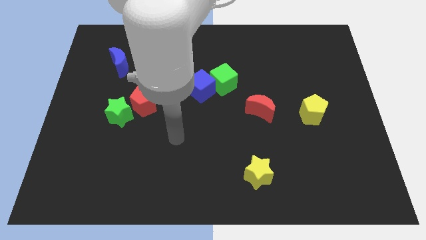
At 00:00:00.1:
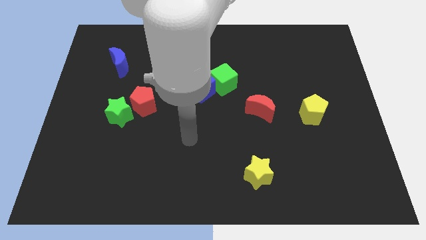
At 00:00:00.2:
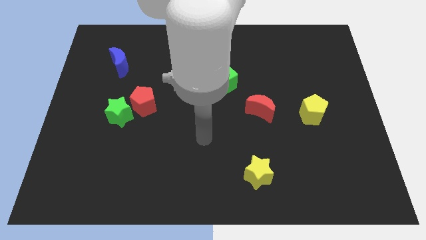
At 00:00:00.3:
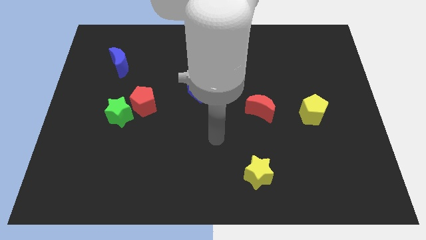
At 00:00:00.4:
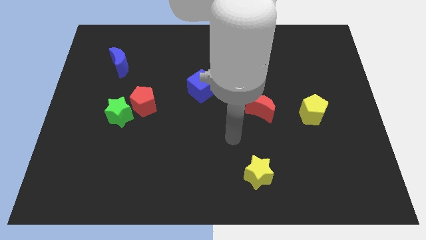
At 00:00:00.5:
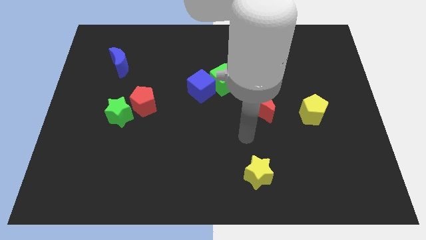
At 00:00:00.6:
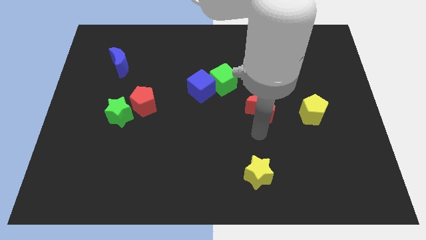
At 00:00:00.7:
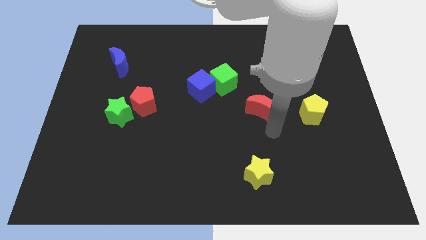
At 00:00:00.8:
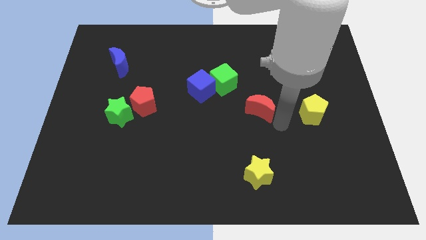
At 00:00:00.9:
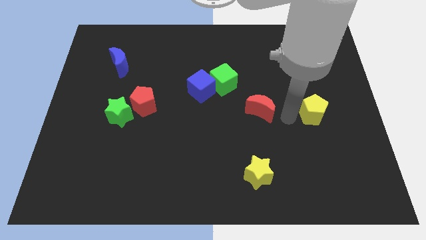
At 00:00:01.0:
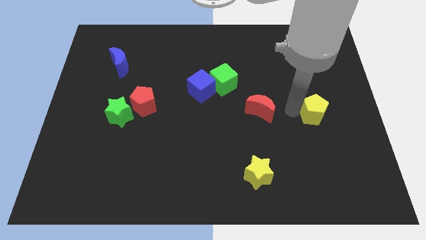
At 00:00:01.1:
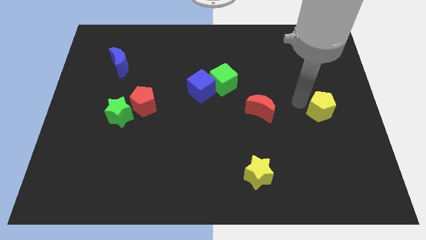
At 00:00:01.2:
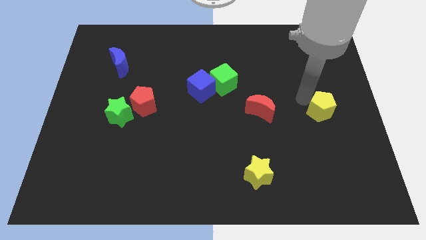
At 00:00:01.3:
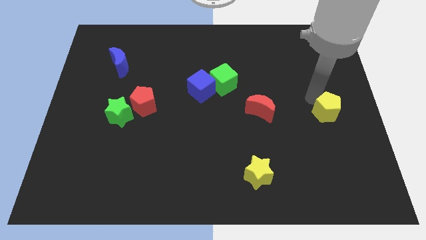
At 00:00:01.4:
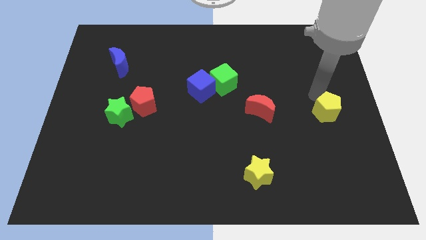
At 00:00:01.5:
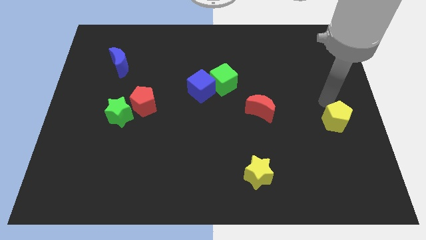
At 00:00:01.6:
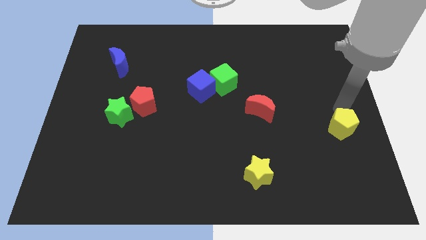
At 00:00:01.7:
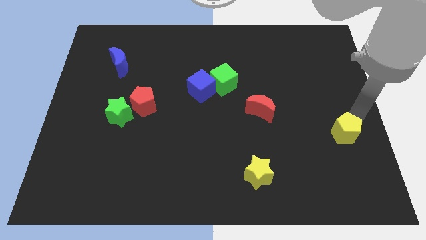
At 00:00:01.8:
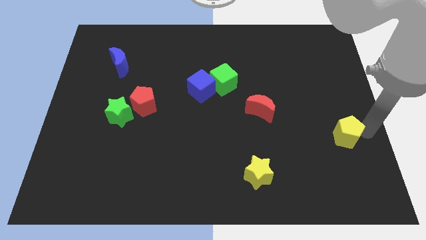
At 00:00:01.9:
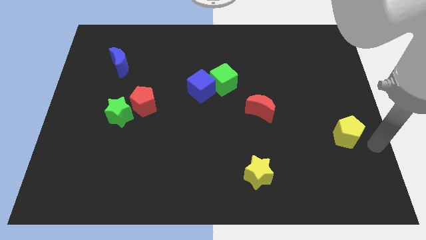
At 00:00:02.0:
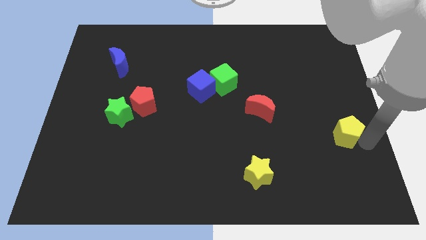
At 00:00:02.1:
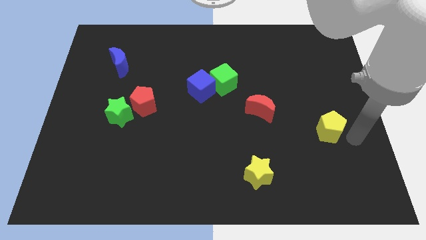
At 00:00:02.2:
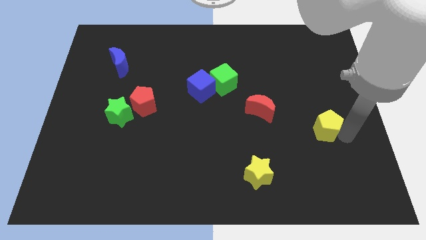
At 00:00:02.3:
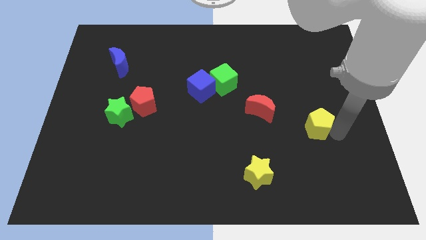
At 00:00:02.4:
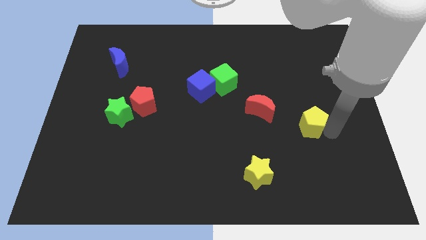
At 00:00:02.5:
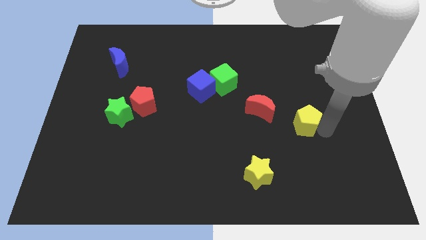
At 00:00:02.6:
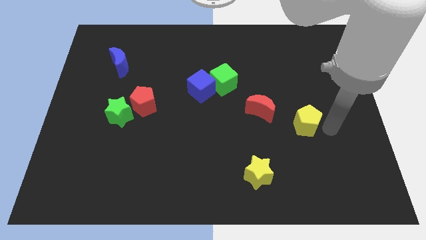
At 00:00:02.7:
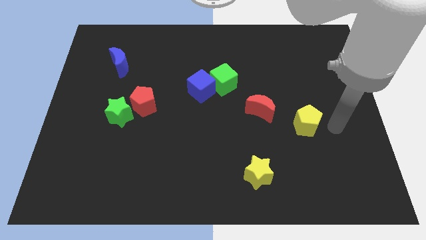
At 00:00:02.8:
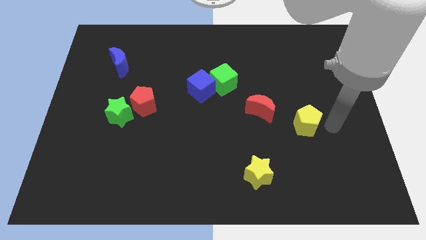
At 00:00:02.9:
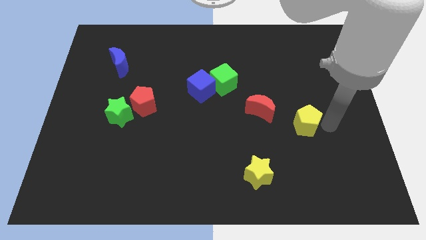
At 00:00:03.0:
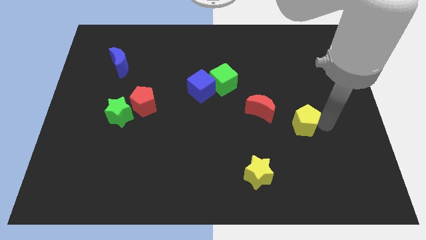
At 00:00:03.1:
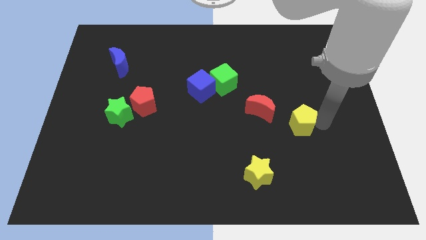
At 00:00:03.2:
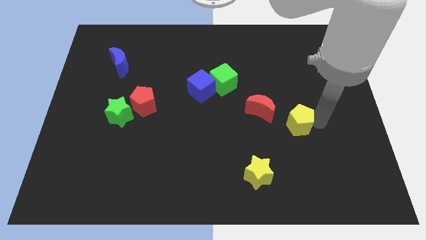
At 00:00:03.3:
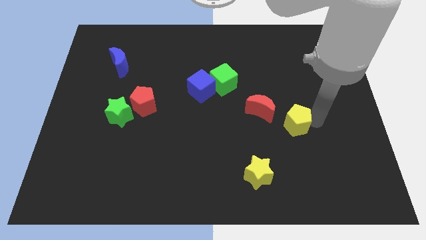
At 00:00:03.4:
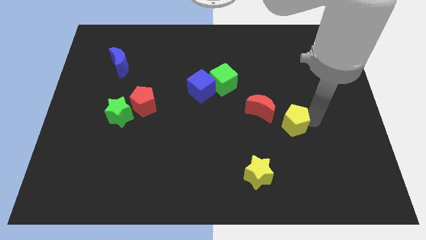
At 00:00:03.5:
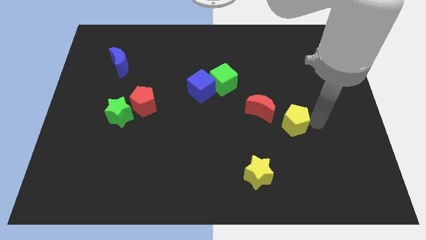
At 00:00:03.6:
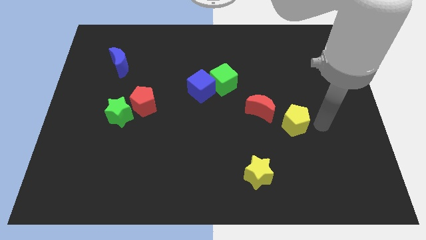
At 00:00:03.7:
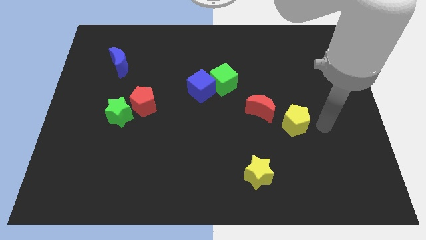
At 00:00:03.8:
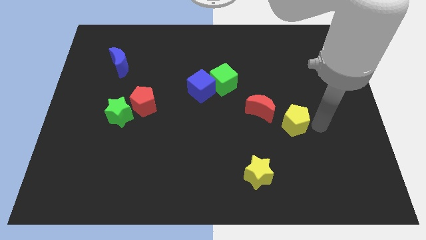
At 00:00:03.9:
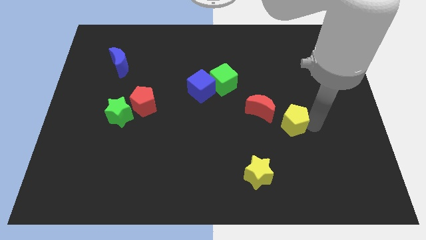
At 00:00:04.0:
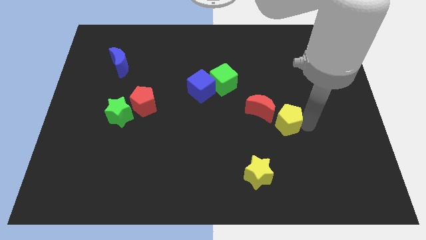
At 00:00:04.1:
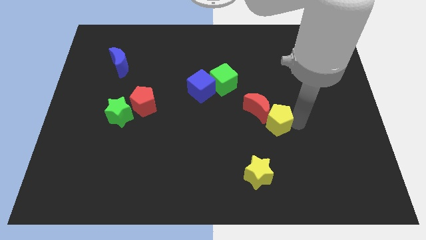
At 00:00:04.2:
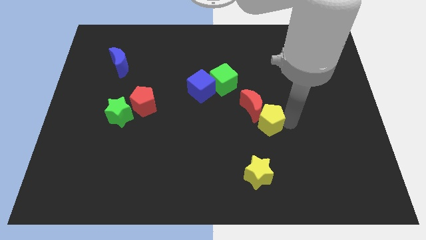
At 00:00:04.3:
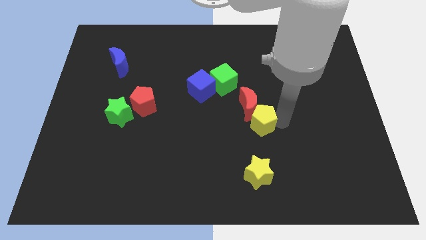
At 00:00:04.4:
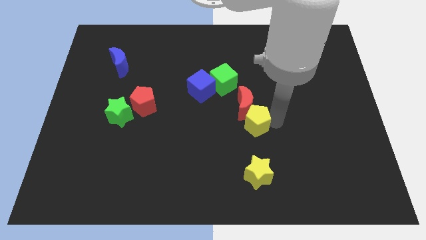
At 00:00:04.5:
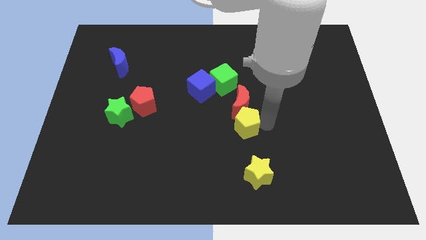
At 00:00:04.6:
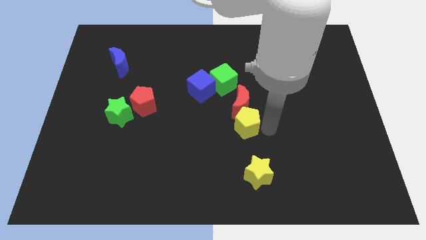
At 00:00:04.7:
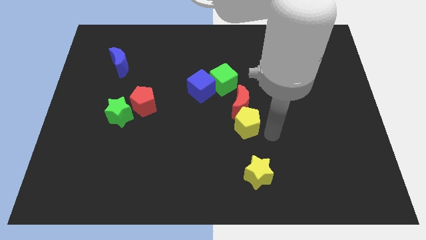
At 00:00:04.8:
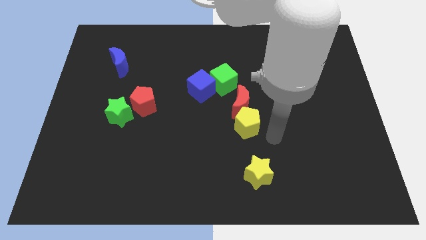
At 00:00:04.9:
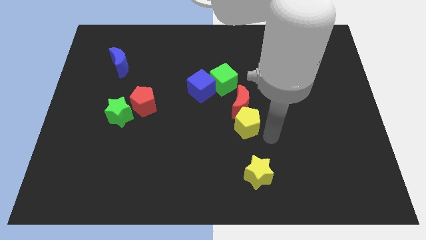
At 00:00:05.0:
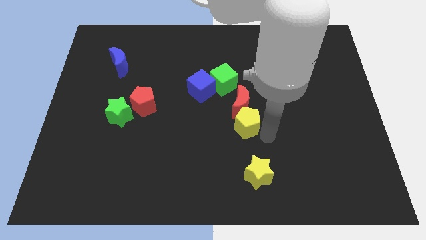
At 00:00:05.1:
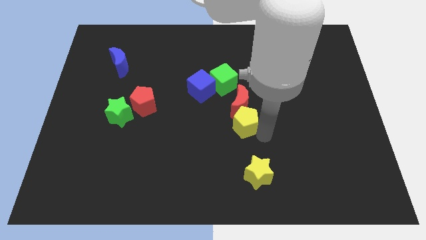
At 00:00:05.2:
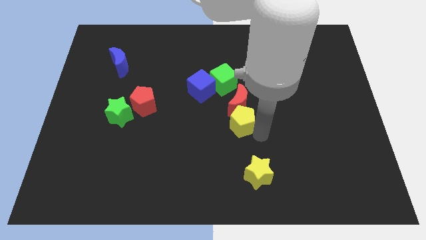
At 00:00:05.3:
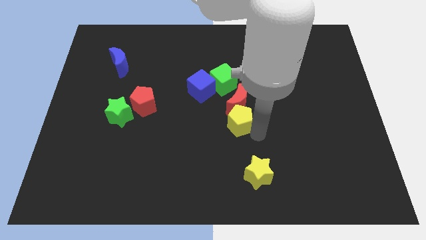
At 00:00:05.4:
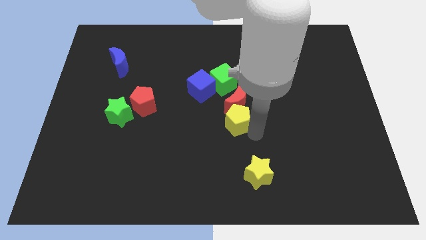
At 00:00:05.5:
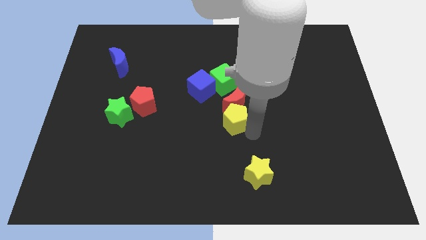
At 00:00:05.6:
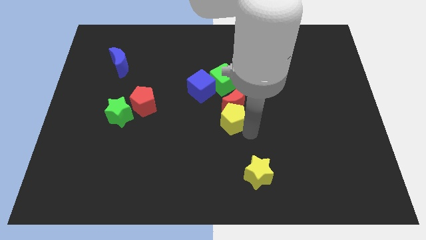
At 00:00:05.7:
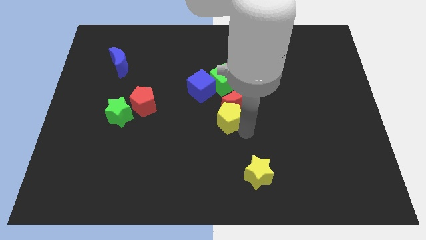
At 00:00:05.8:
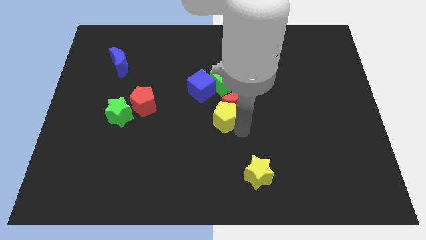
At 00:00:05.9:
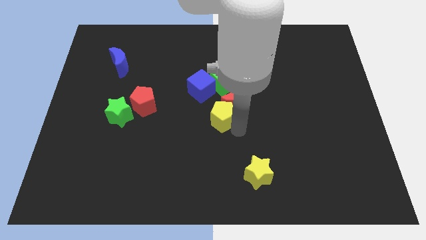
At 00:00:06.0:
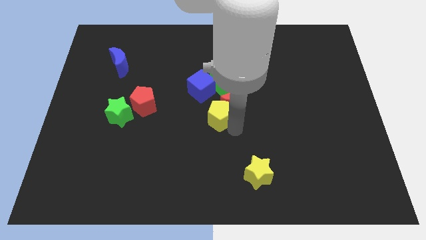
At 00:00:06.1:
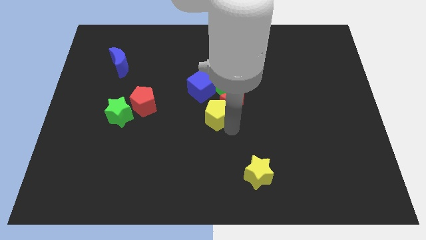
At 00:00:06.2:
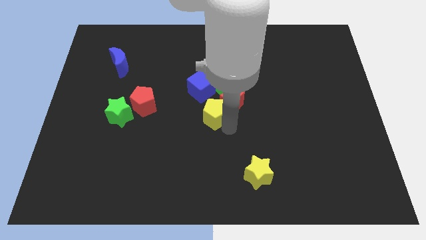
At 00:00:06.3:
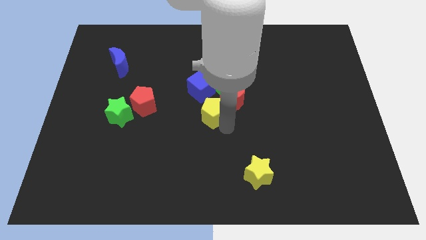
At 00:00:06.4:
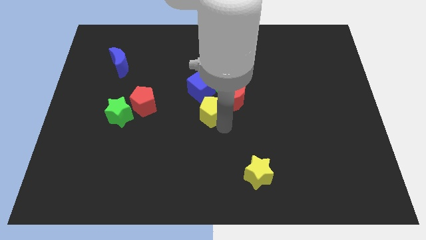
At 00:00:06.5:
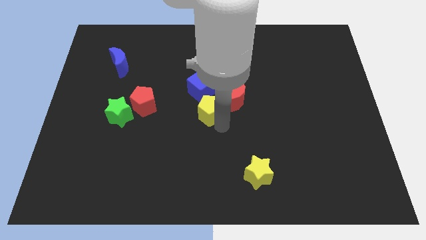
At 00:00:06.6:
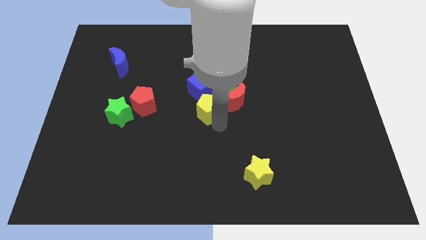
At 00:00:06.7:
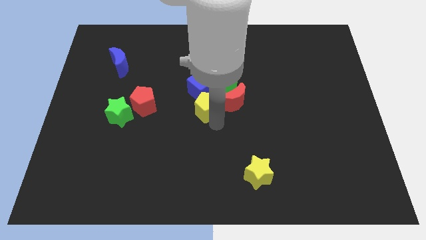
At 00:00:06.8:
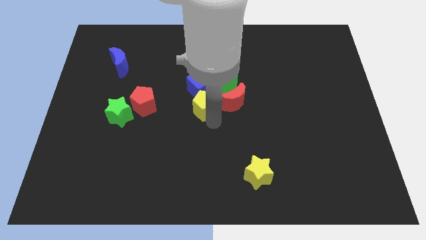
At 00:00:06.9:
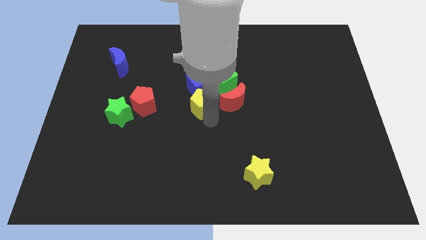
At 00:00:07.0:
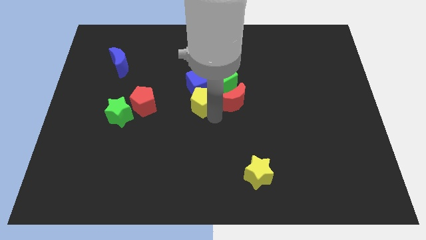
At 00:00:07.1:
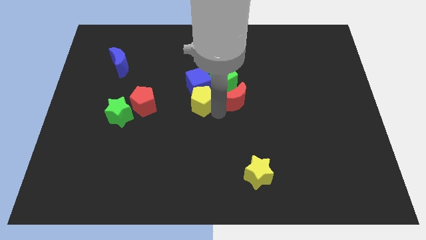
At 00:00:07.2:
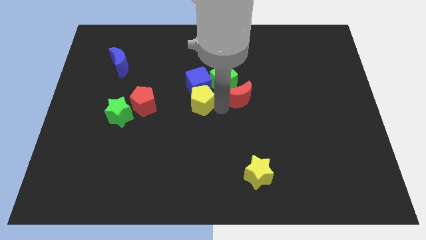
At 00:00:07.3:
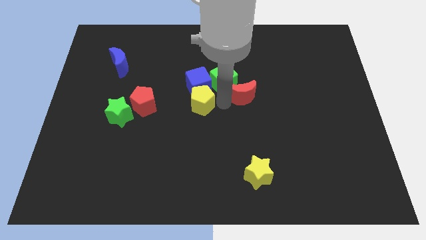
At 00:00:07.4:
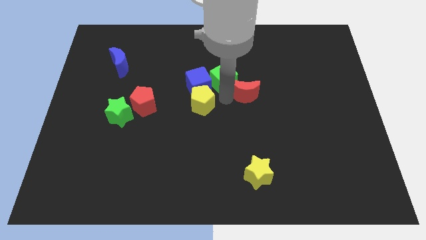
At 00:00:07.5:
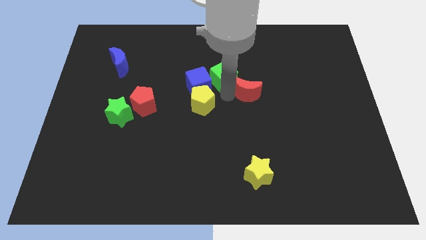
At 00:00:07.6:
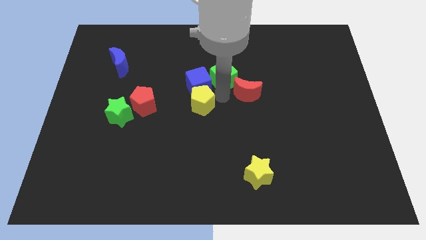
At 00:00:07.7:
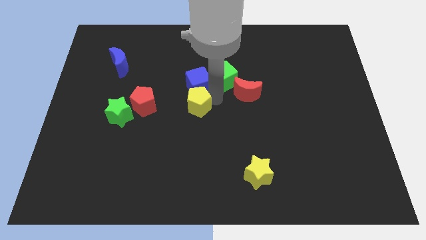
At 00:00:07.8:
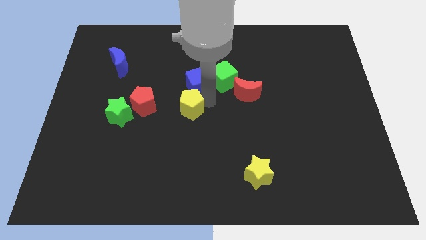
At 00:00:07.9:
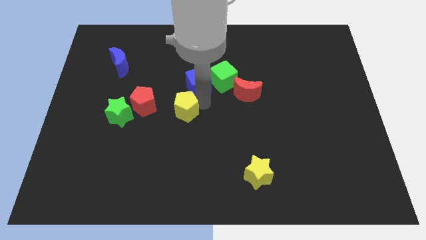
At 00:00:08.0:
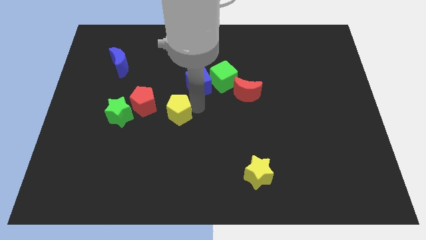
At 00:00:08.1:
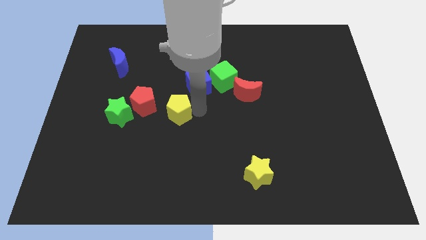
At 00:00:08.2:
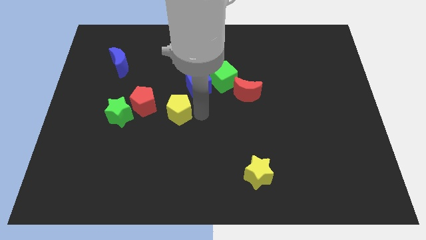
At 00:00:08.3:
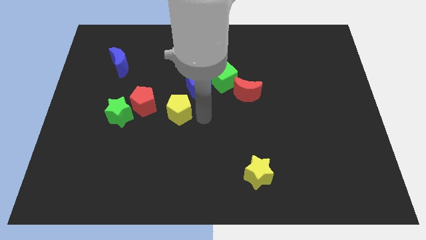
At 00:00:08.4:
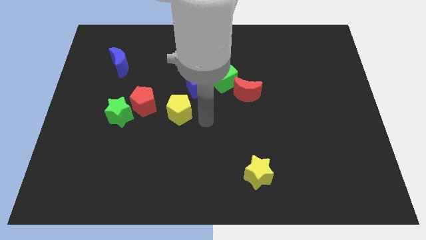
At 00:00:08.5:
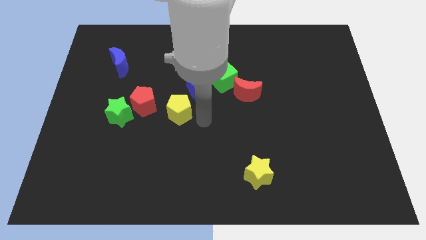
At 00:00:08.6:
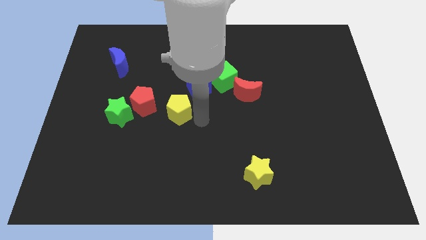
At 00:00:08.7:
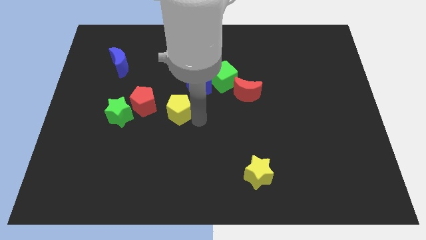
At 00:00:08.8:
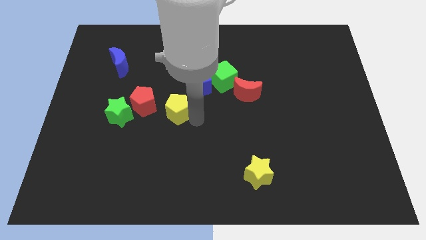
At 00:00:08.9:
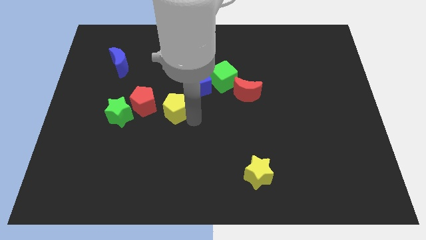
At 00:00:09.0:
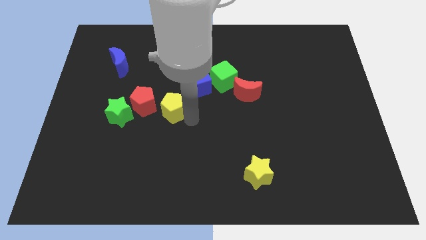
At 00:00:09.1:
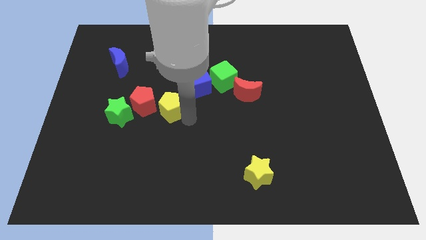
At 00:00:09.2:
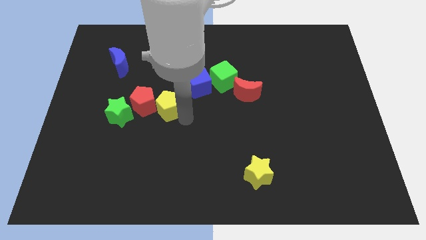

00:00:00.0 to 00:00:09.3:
put the yellow pentagon towards the red pentagon
